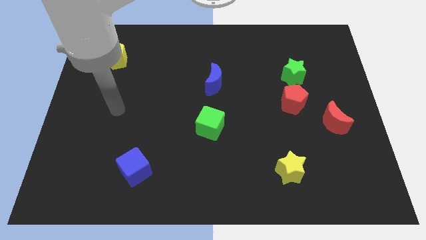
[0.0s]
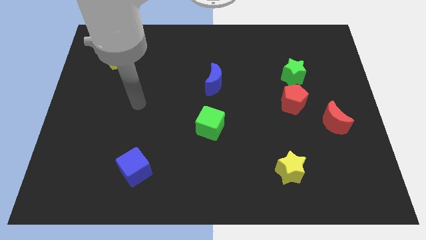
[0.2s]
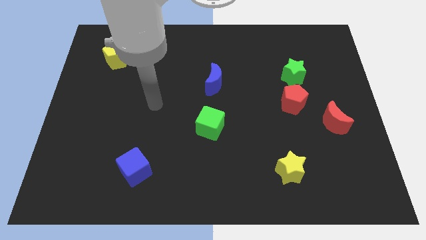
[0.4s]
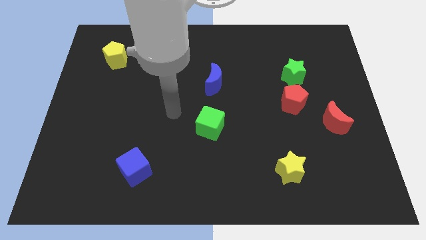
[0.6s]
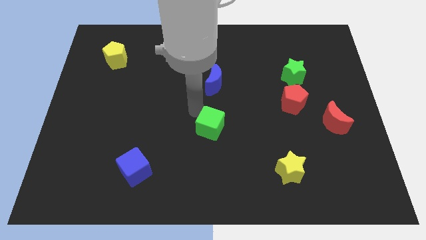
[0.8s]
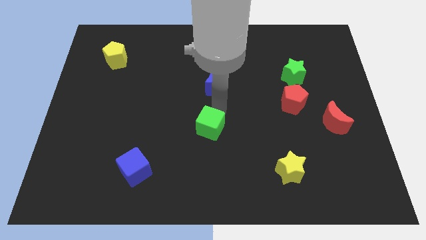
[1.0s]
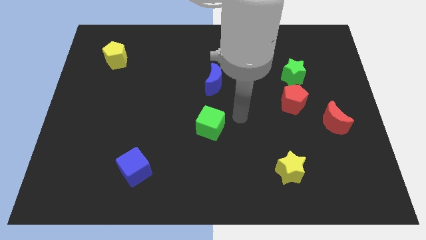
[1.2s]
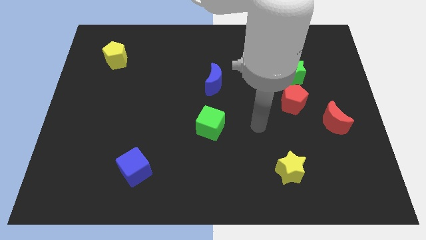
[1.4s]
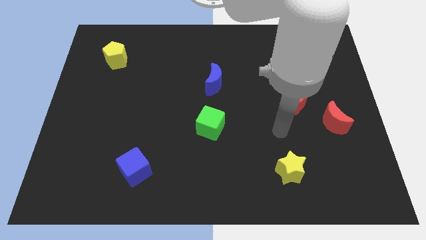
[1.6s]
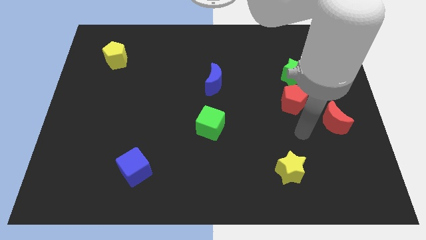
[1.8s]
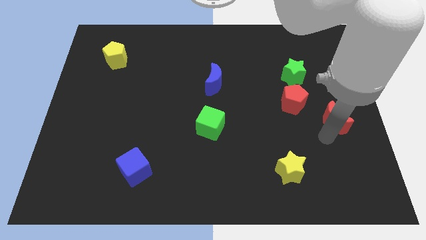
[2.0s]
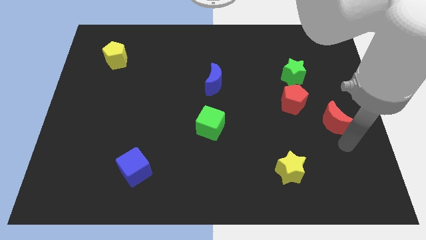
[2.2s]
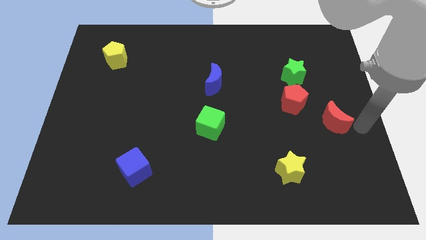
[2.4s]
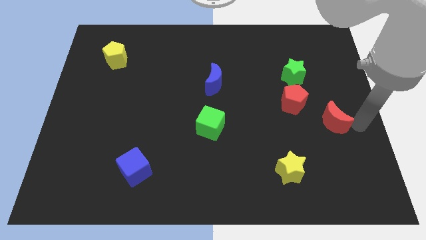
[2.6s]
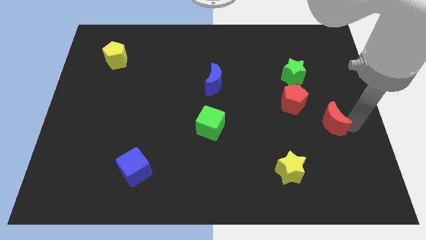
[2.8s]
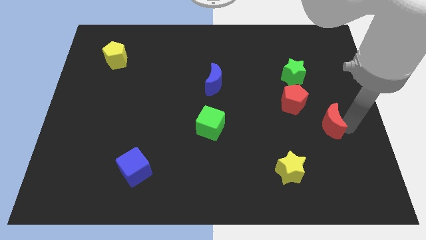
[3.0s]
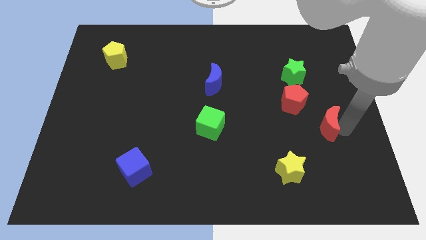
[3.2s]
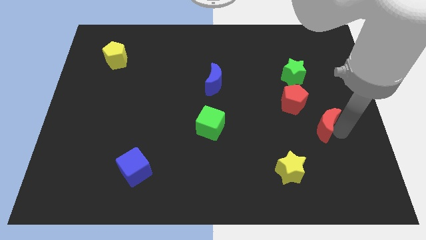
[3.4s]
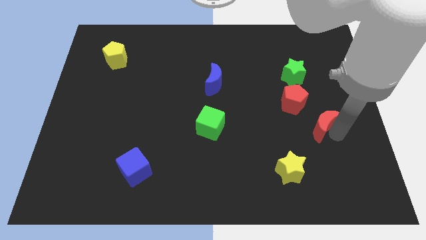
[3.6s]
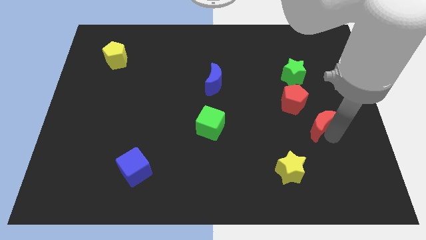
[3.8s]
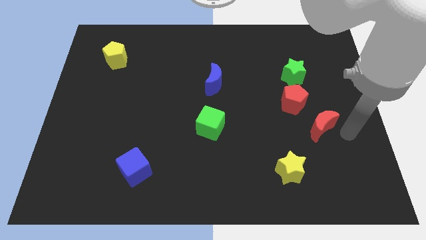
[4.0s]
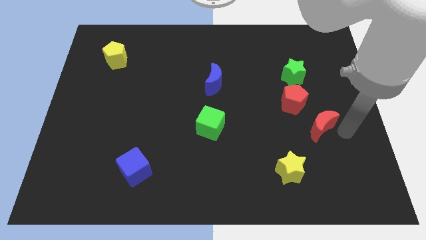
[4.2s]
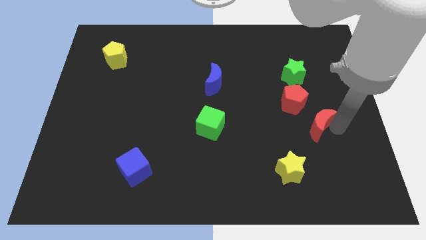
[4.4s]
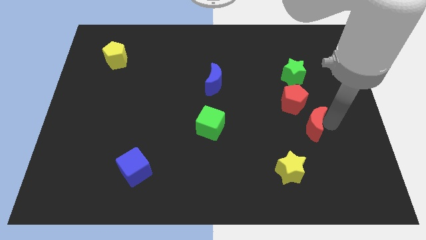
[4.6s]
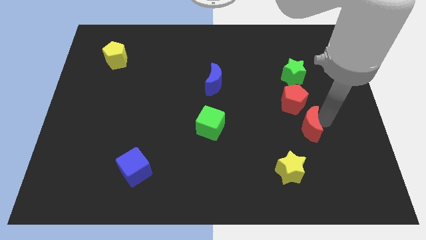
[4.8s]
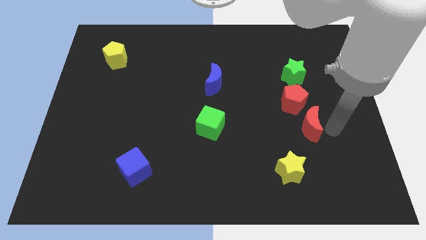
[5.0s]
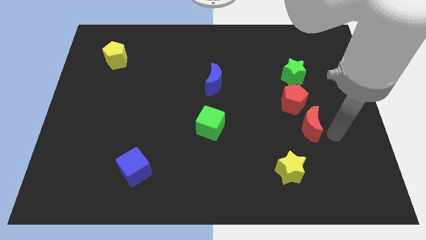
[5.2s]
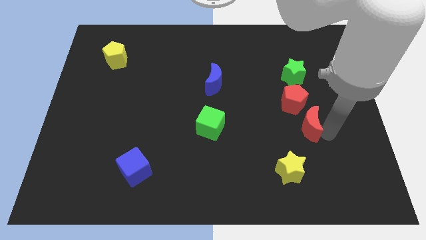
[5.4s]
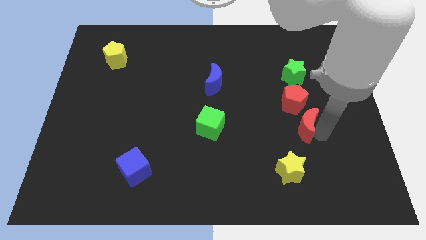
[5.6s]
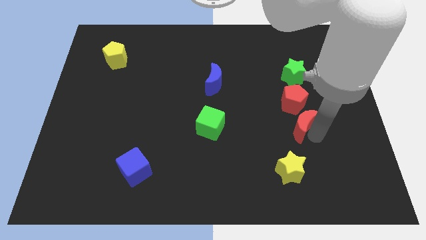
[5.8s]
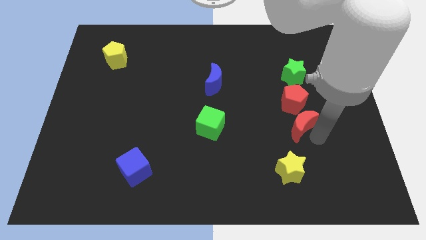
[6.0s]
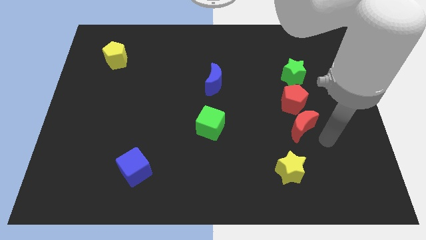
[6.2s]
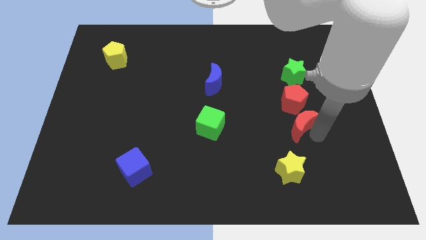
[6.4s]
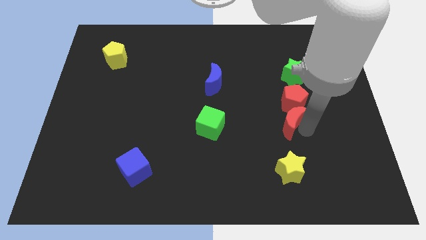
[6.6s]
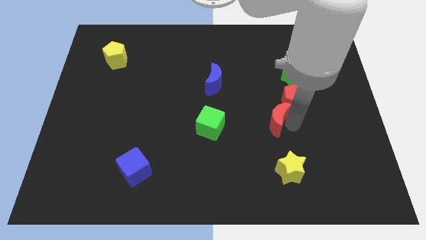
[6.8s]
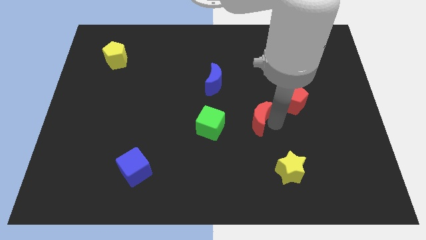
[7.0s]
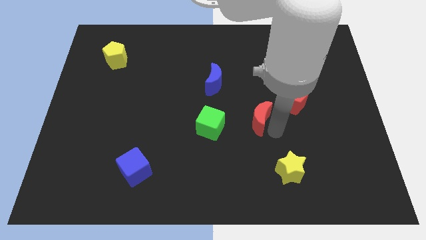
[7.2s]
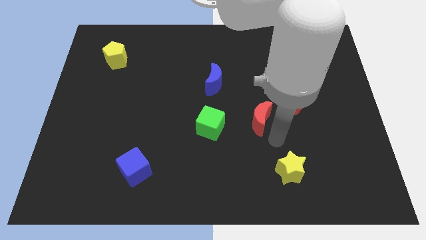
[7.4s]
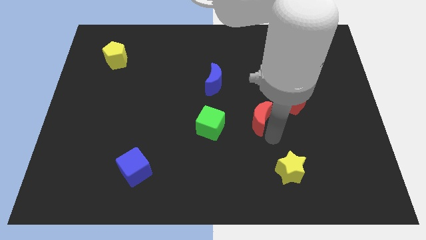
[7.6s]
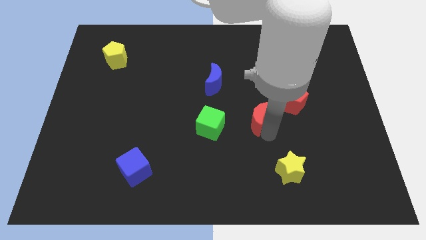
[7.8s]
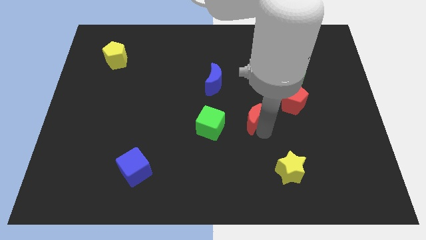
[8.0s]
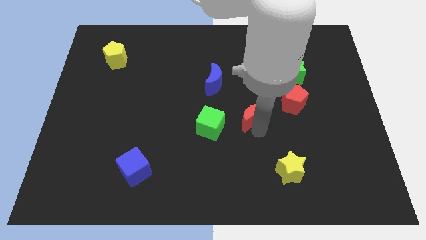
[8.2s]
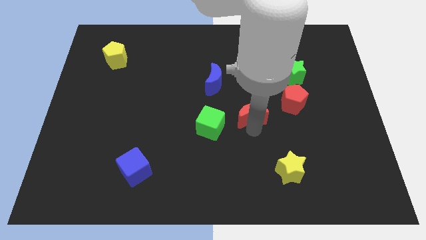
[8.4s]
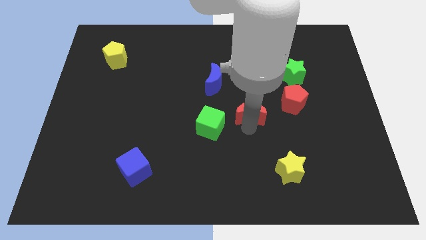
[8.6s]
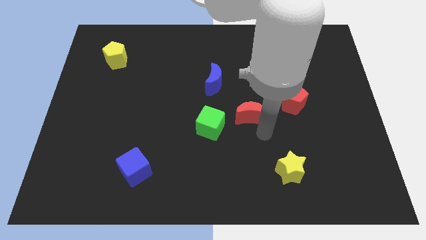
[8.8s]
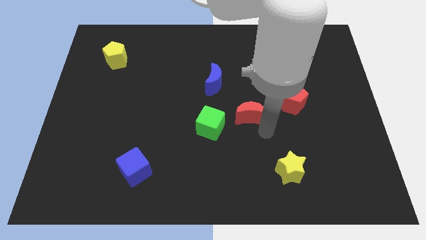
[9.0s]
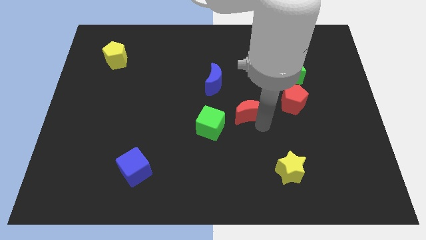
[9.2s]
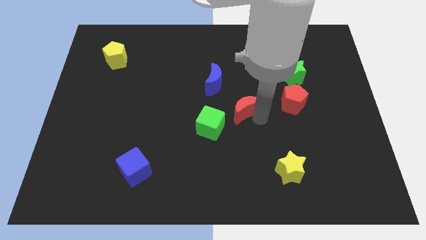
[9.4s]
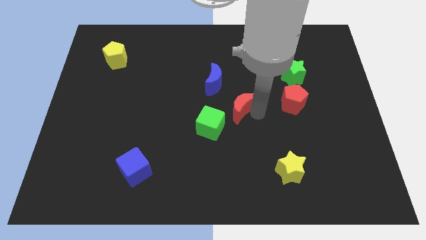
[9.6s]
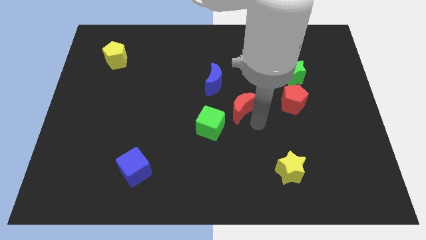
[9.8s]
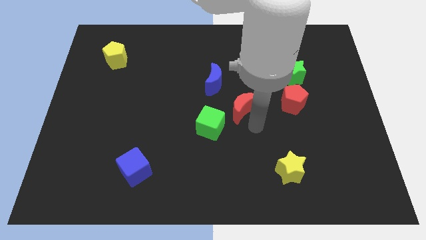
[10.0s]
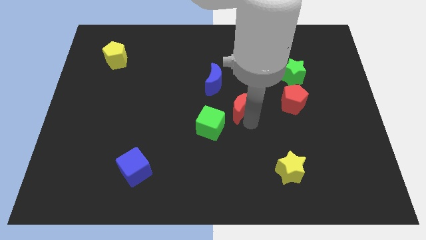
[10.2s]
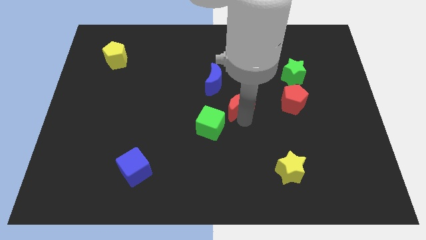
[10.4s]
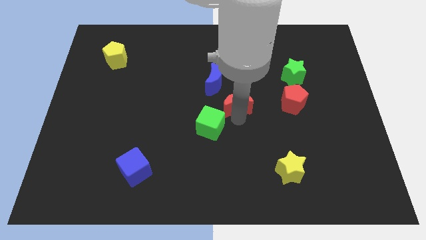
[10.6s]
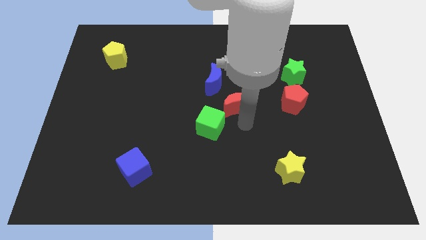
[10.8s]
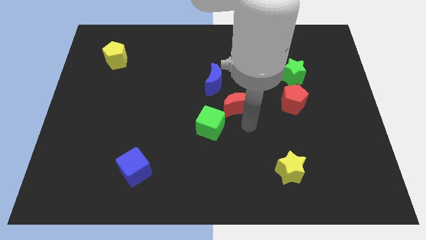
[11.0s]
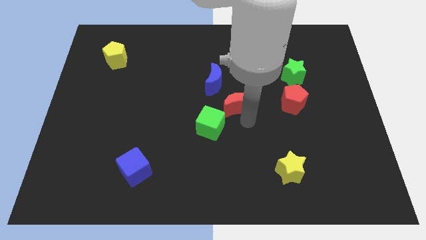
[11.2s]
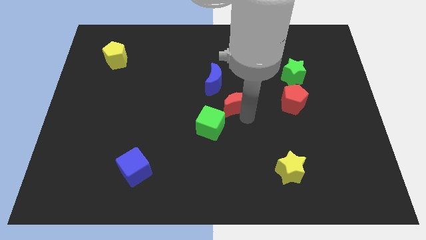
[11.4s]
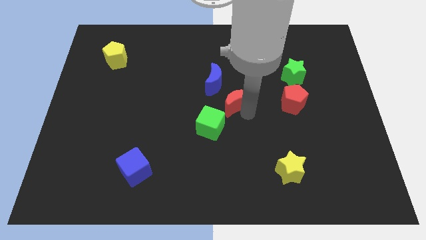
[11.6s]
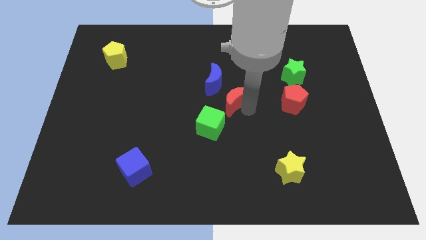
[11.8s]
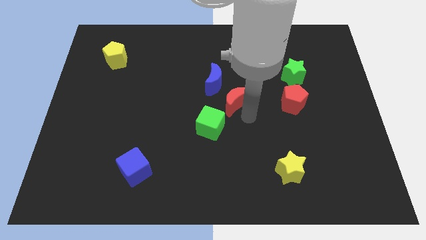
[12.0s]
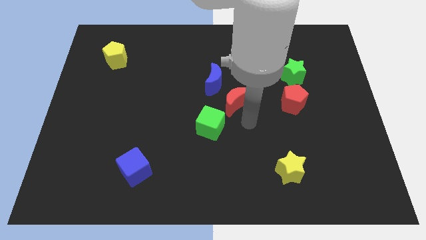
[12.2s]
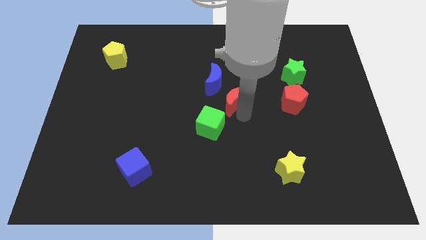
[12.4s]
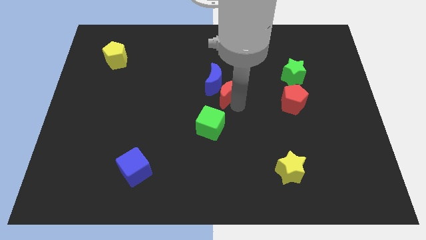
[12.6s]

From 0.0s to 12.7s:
slide the red moon towards the blue moon

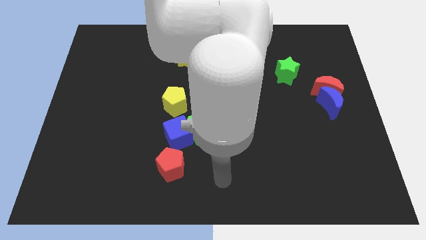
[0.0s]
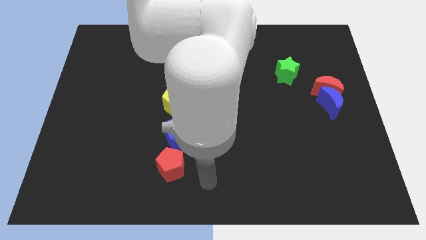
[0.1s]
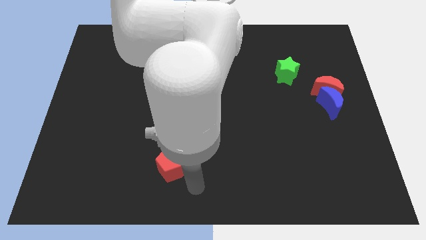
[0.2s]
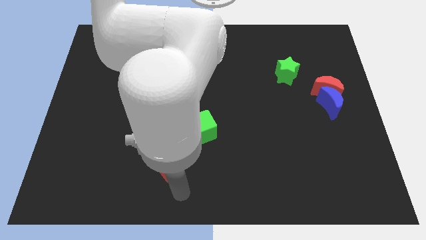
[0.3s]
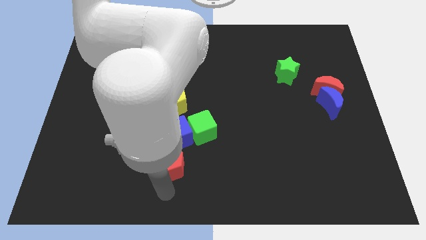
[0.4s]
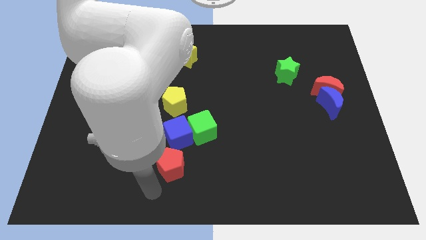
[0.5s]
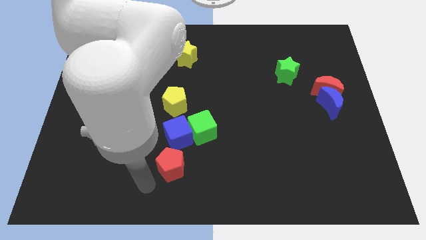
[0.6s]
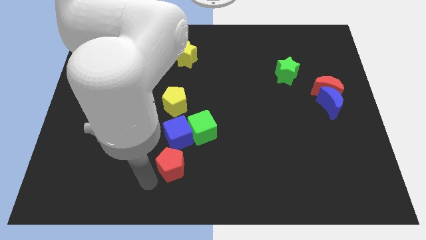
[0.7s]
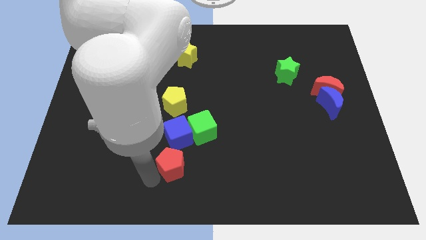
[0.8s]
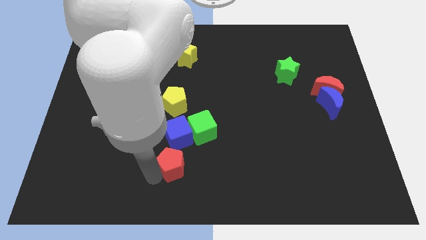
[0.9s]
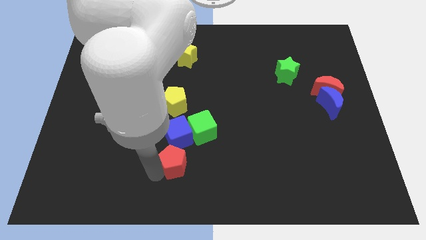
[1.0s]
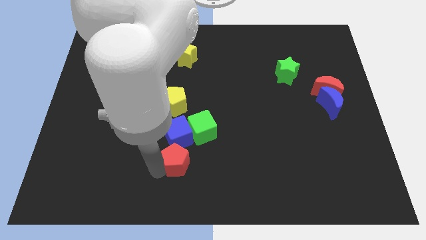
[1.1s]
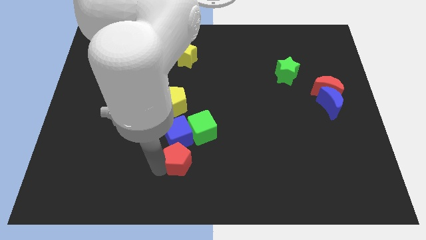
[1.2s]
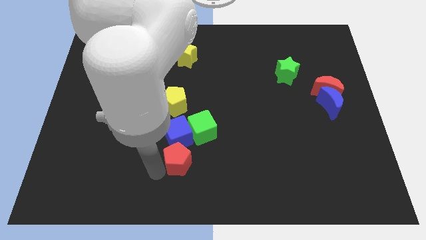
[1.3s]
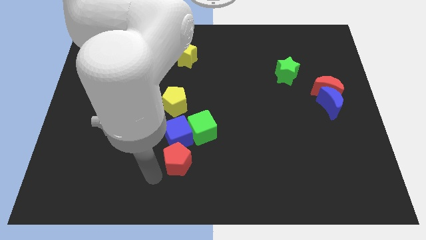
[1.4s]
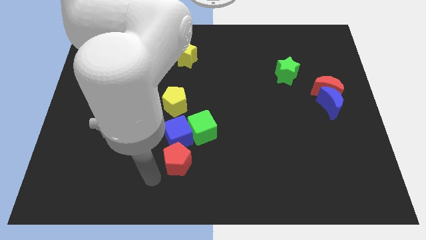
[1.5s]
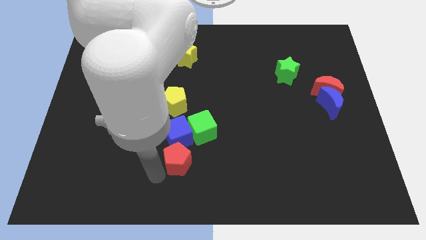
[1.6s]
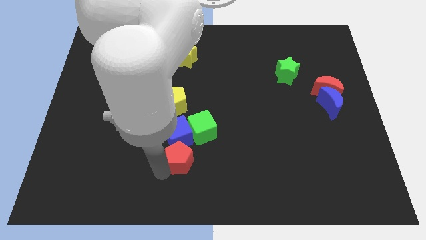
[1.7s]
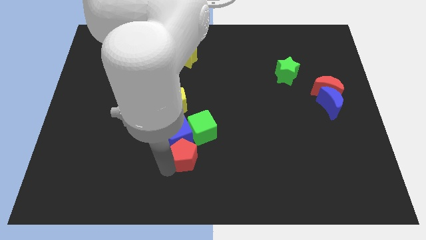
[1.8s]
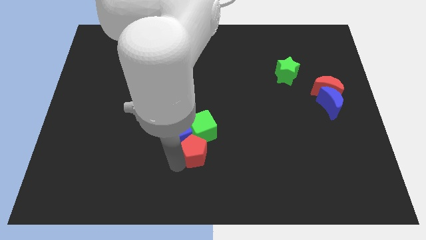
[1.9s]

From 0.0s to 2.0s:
slide the red pentagon to the green cube
